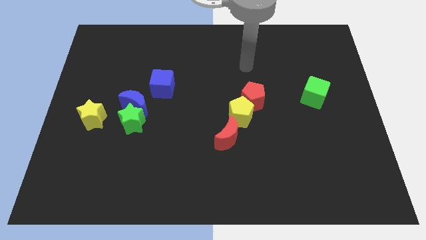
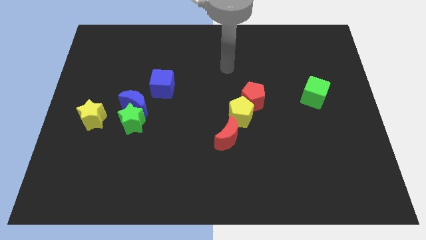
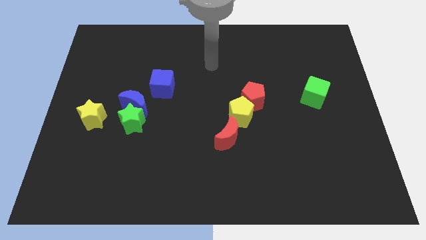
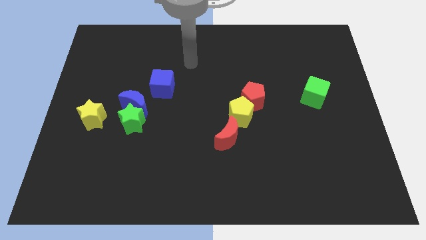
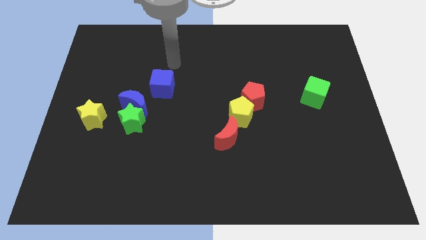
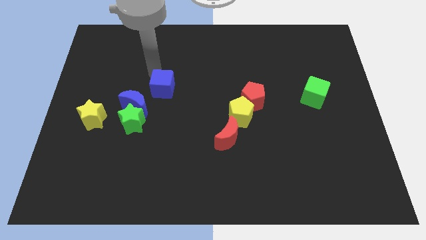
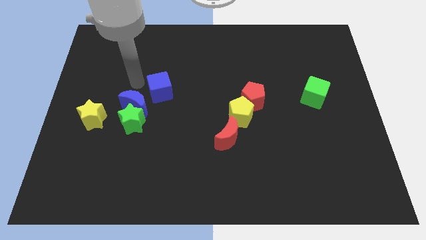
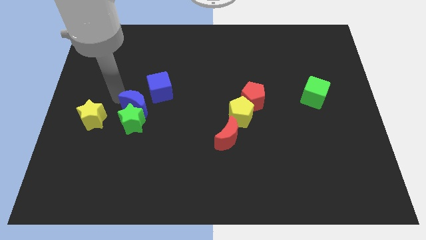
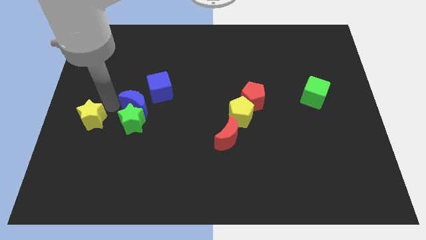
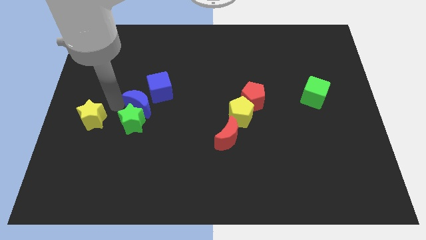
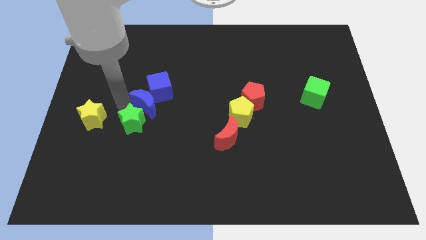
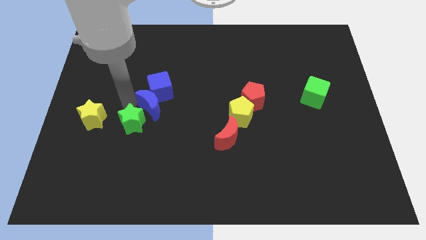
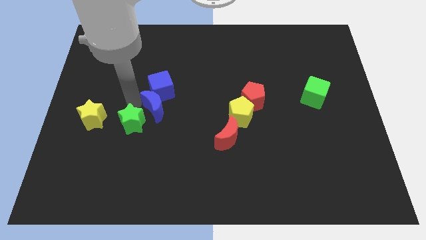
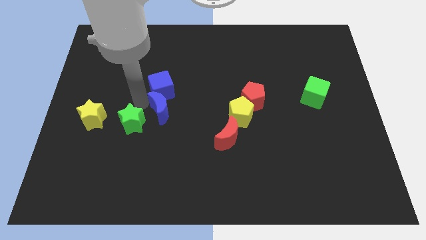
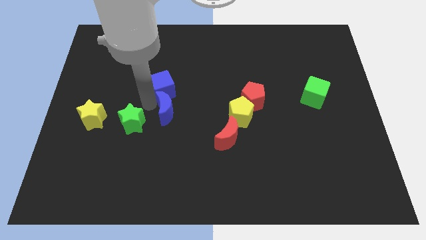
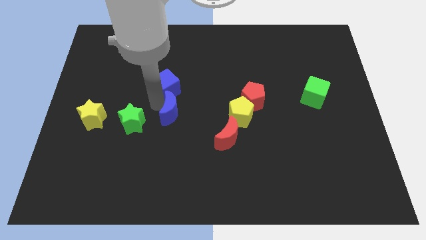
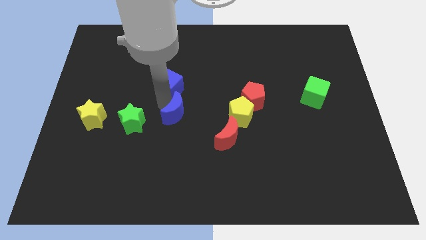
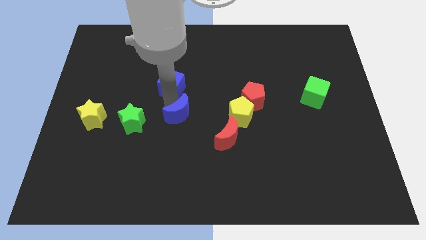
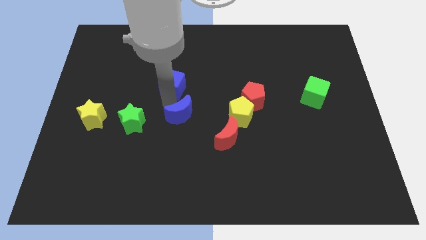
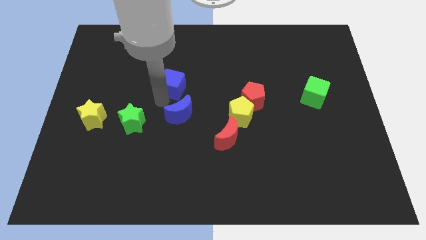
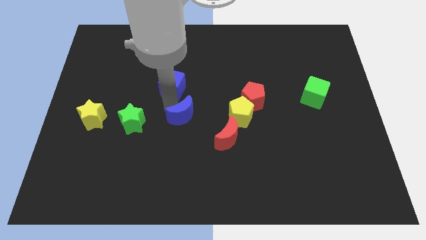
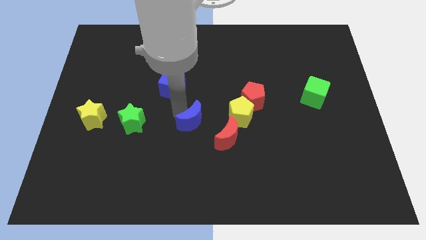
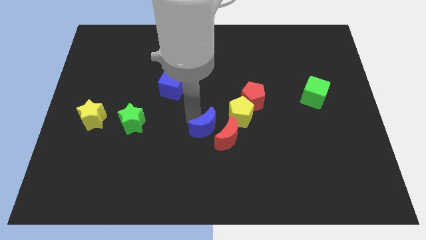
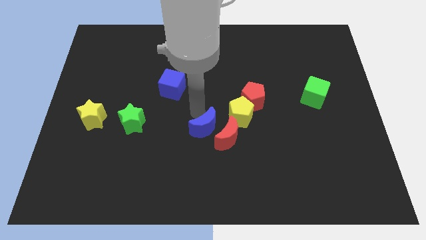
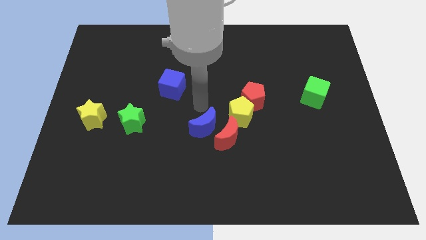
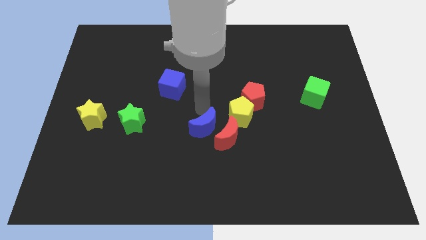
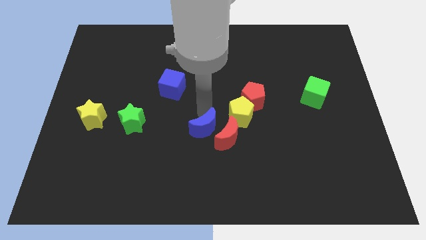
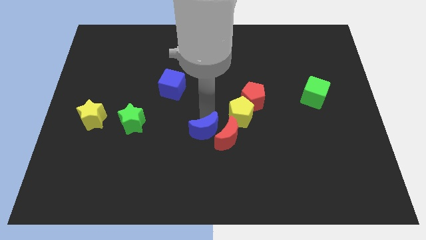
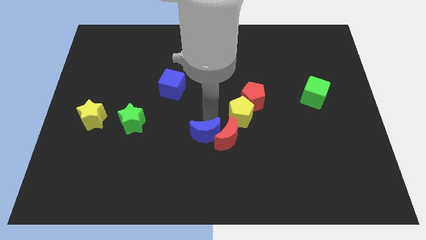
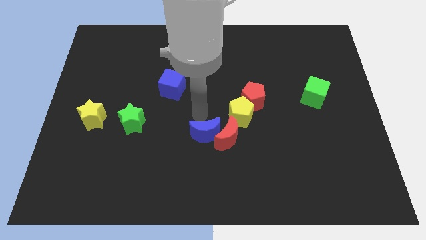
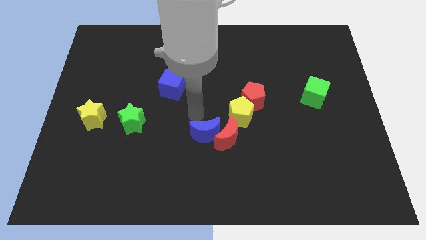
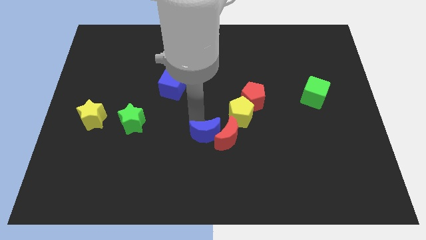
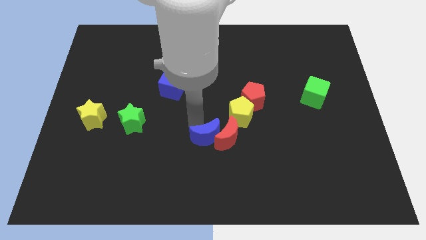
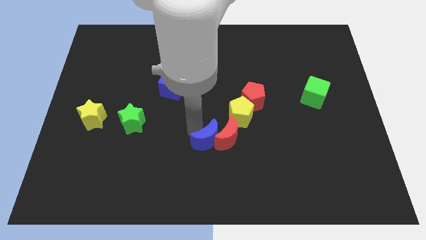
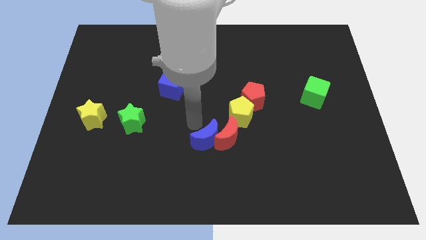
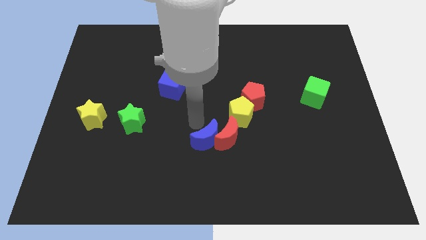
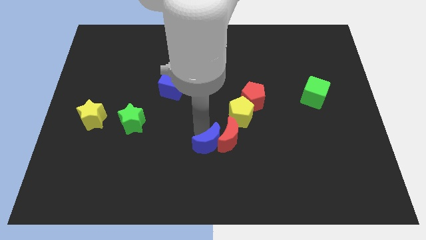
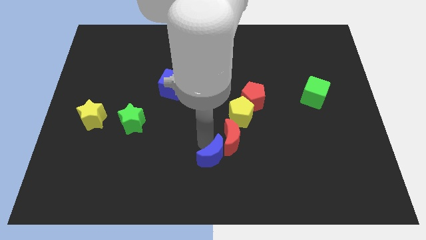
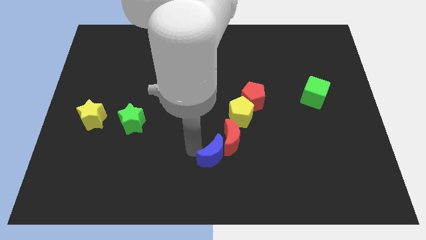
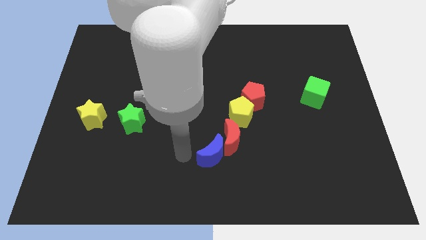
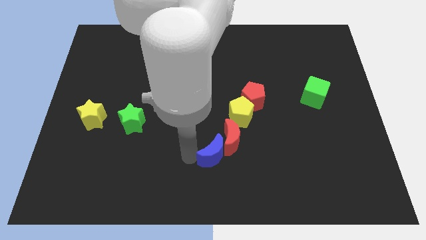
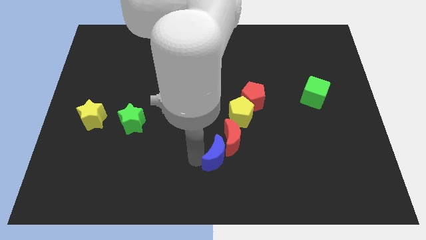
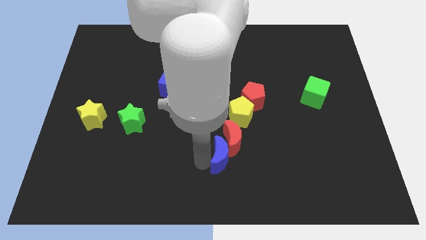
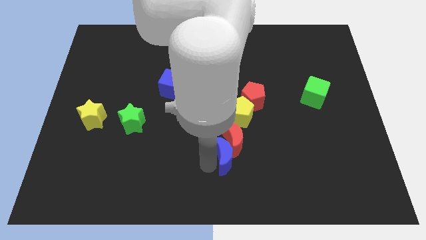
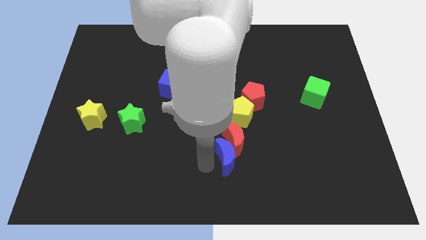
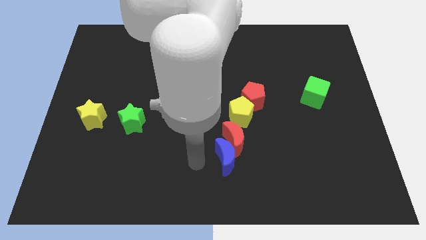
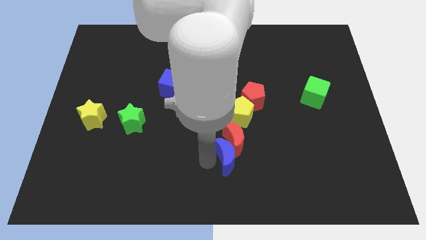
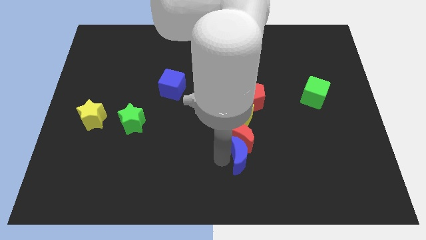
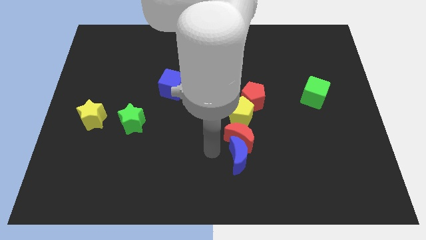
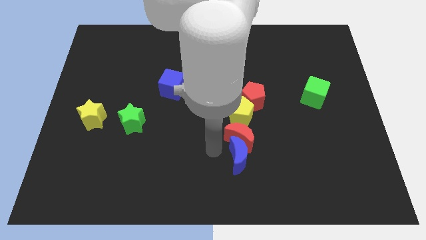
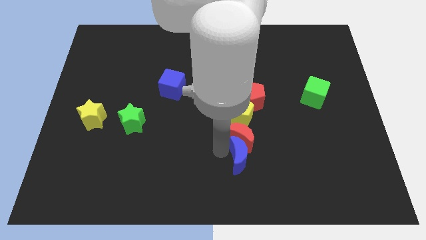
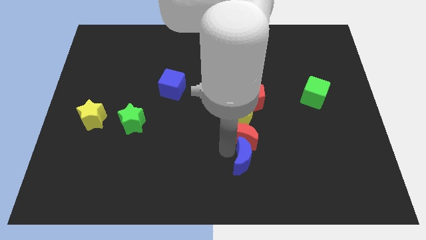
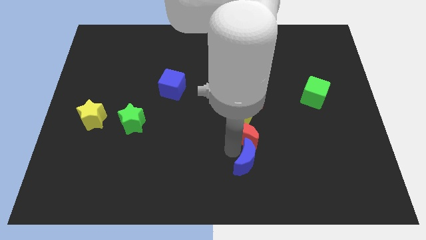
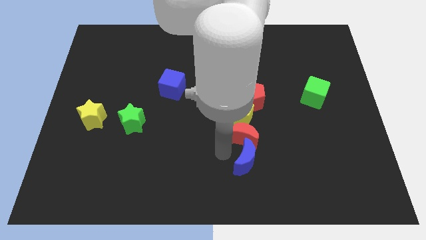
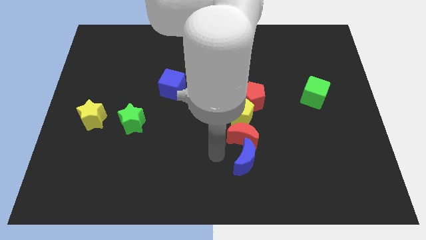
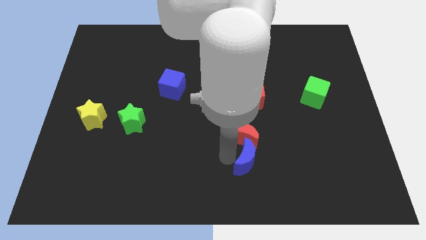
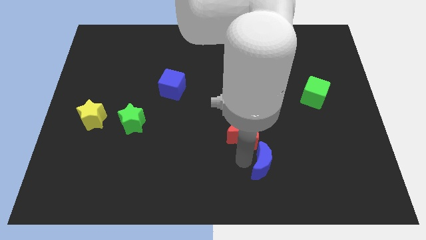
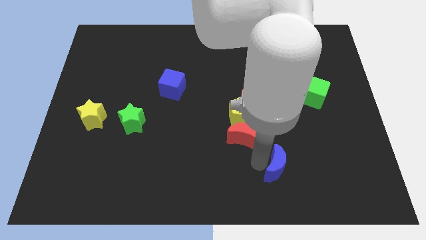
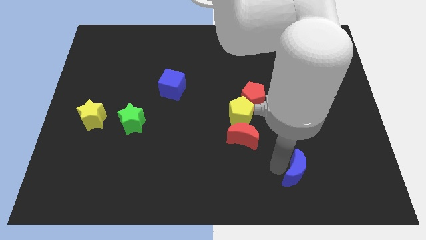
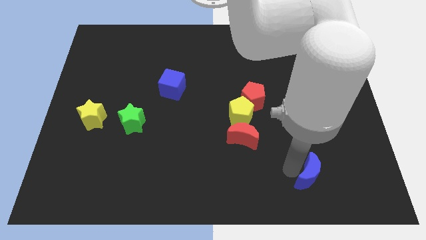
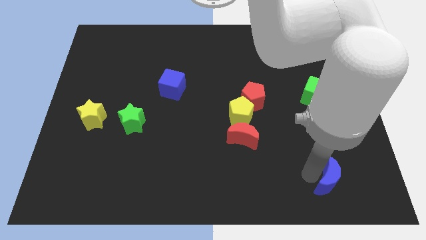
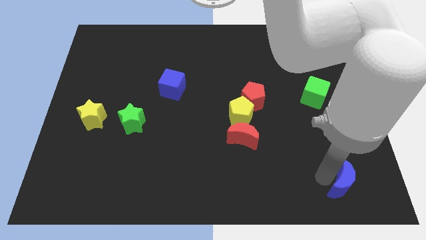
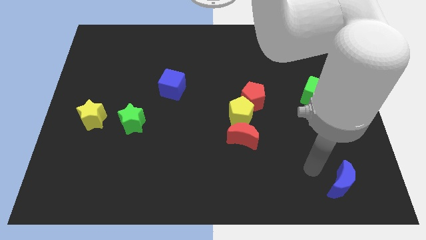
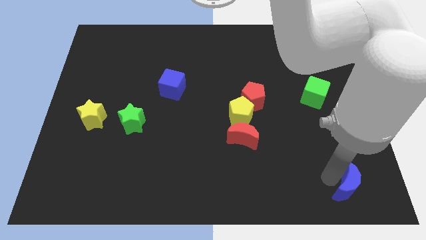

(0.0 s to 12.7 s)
move the blue moon to the lower right corner

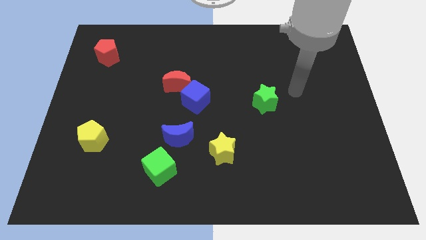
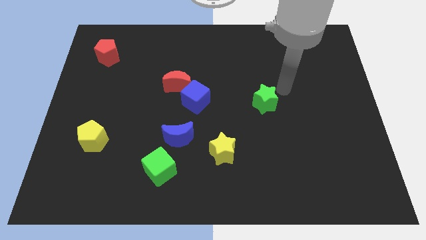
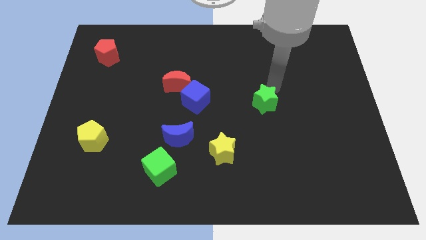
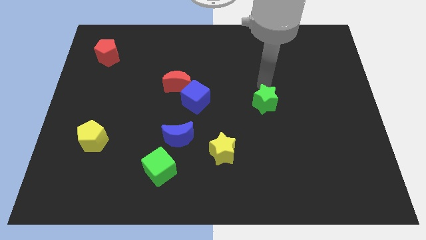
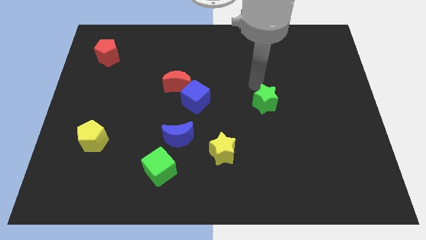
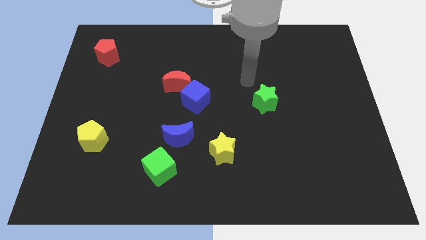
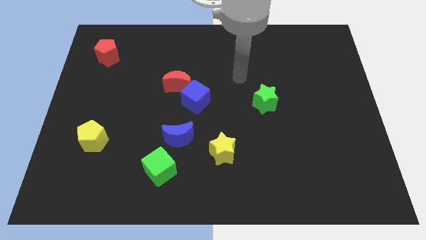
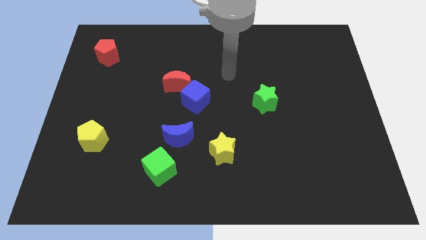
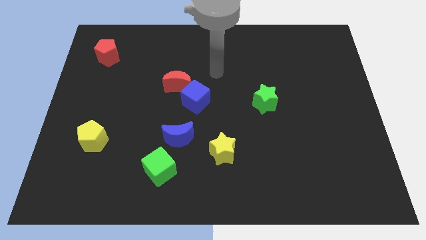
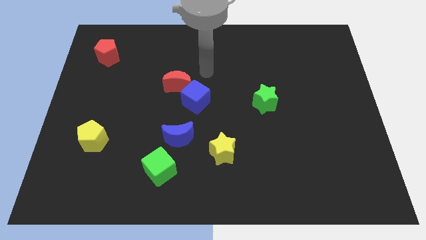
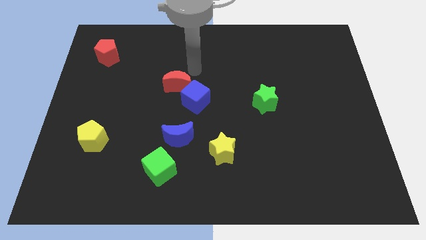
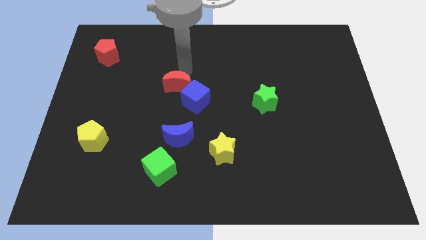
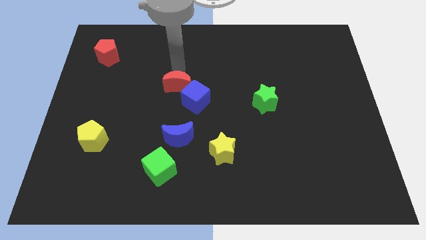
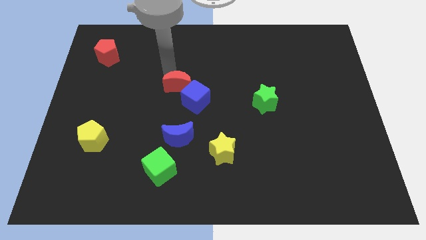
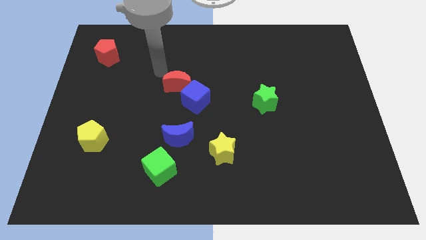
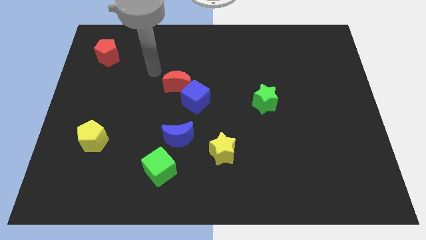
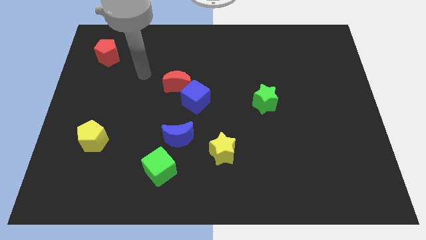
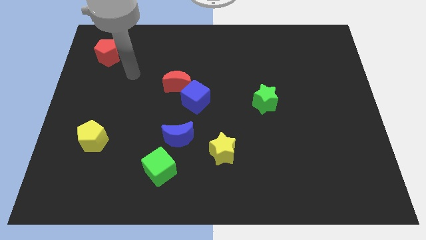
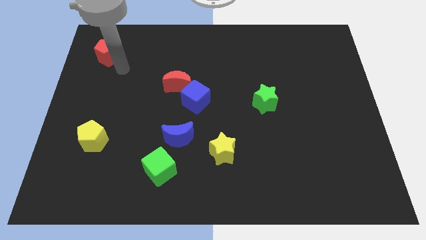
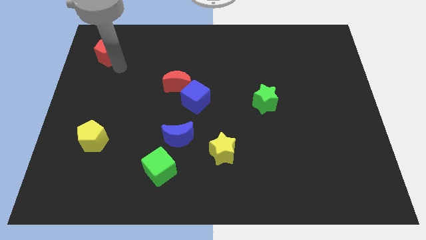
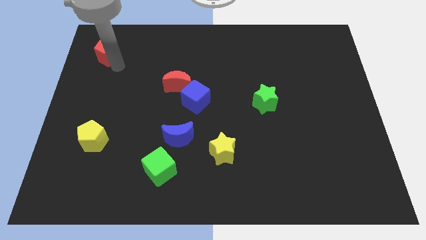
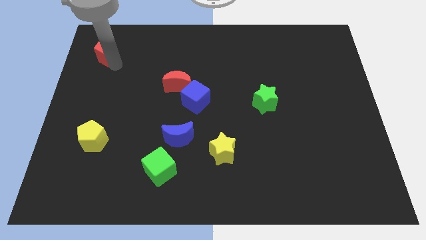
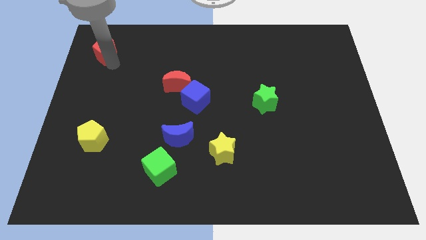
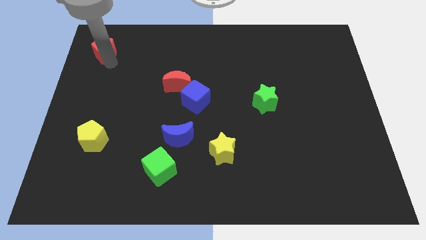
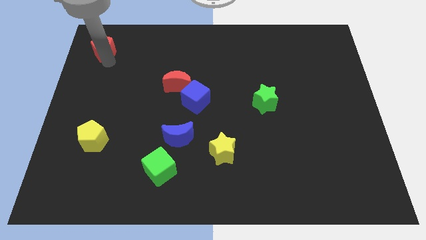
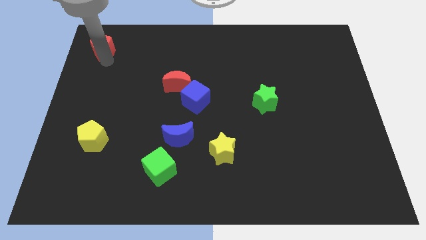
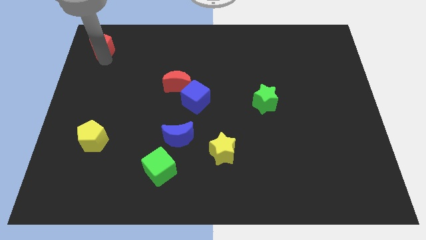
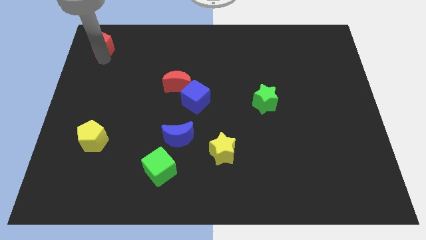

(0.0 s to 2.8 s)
slide the red pentagon to the top left of the board
